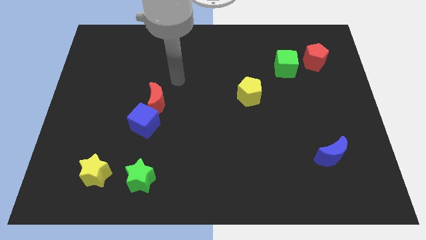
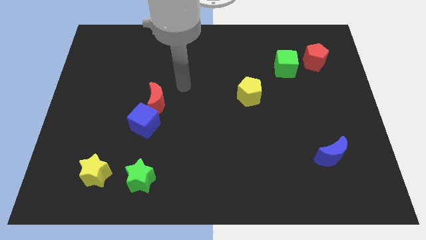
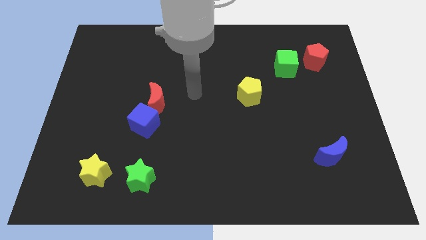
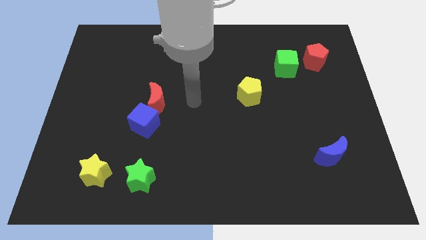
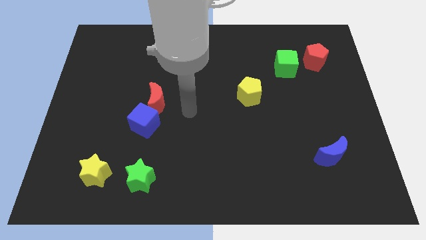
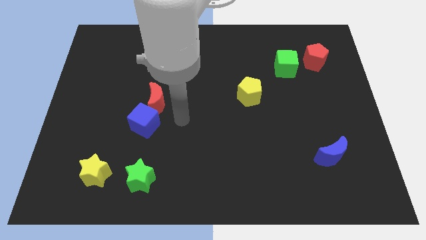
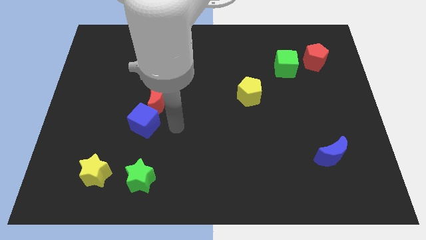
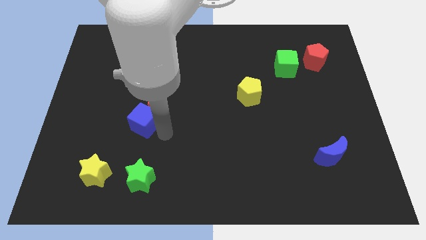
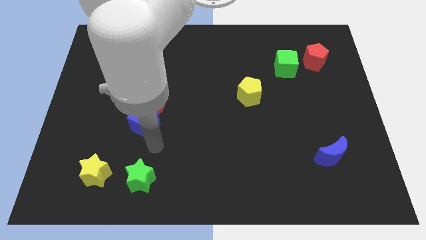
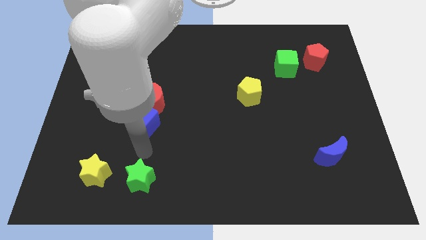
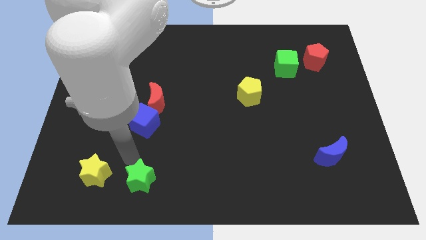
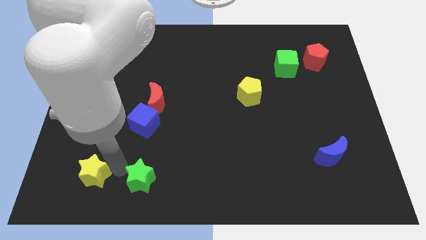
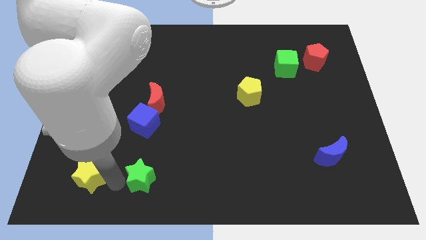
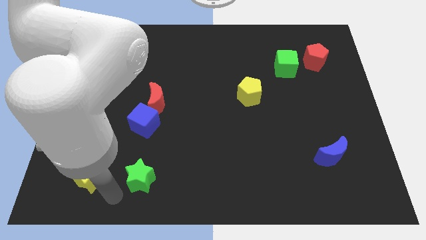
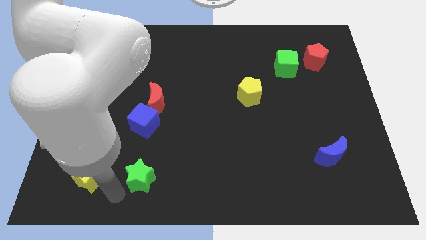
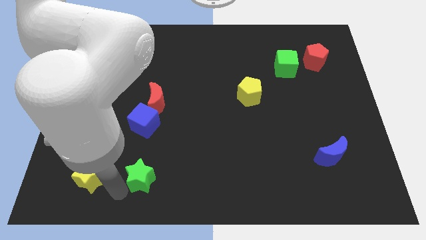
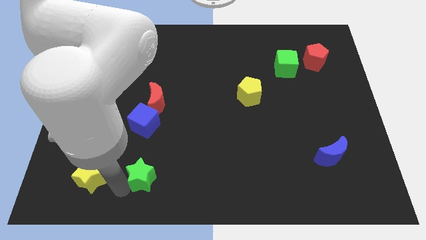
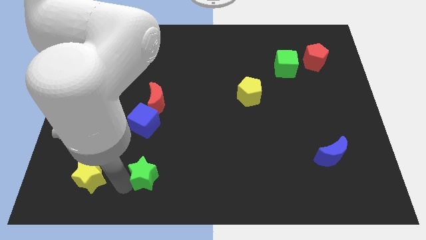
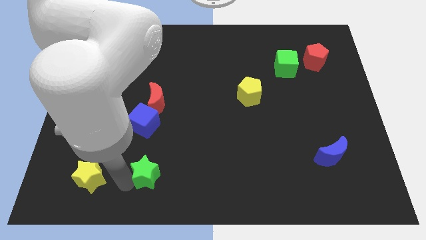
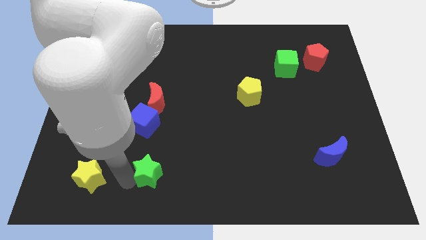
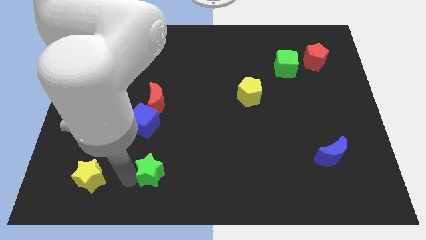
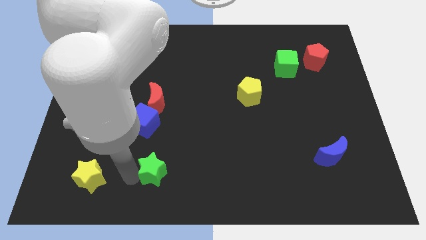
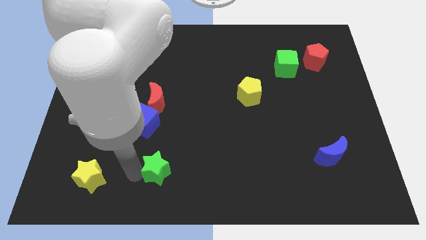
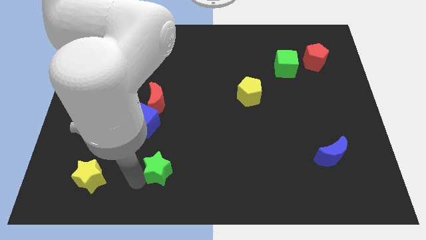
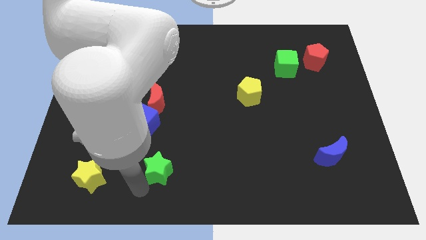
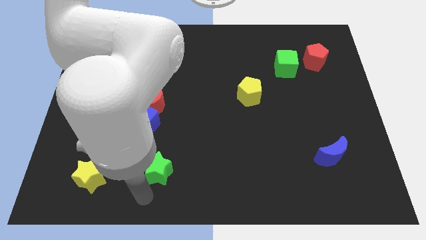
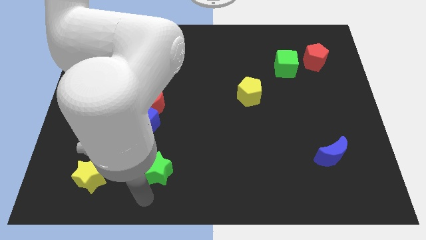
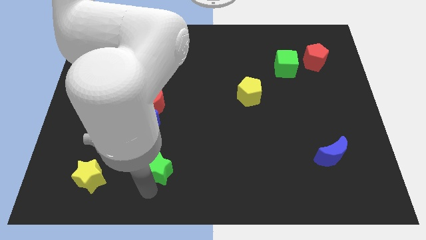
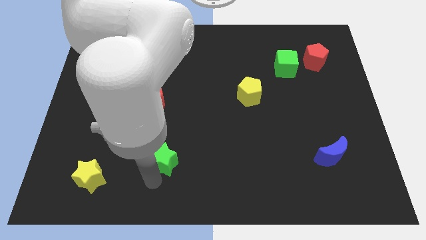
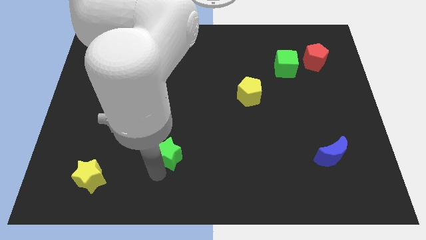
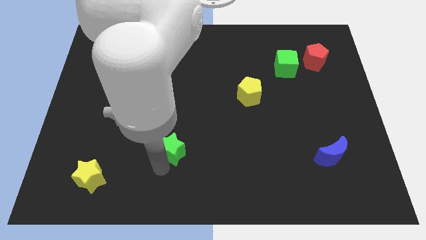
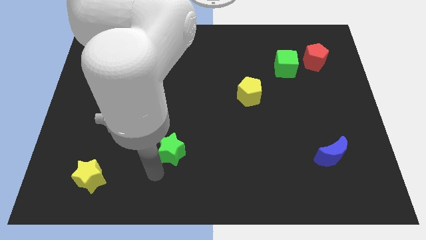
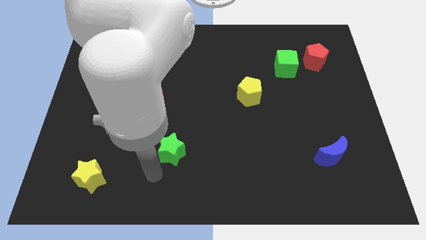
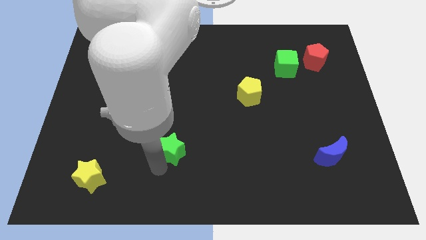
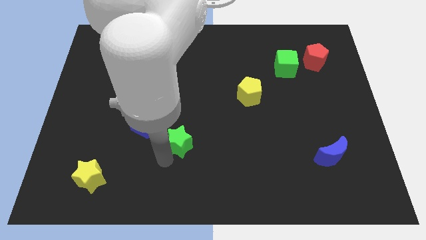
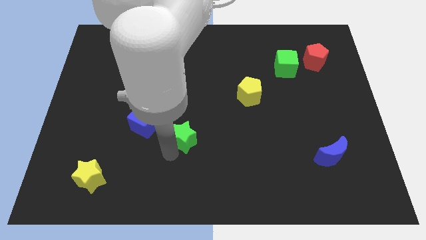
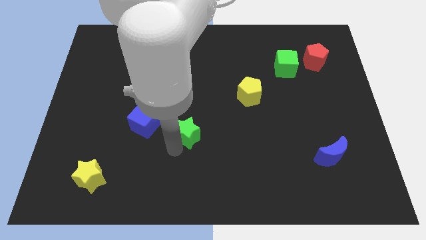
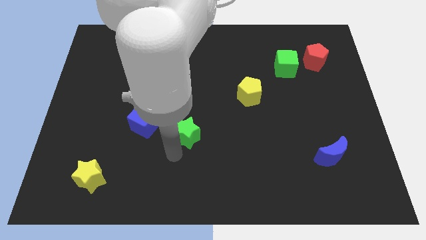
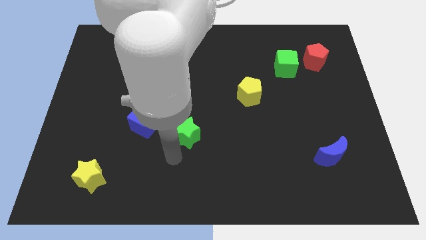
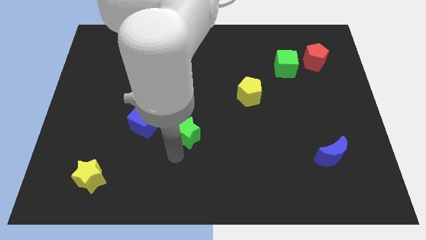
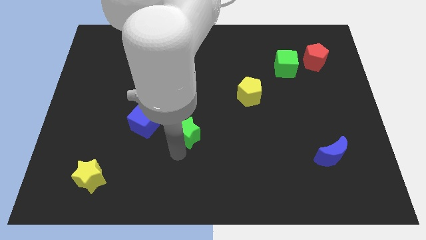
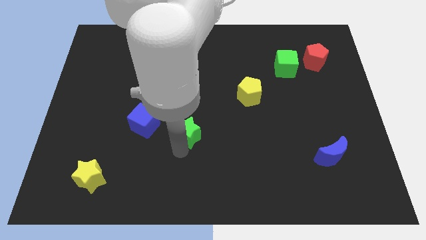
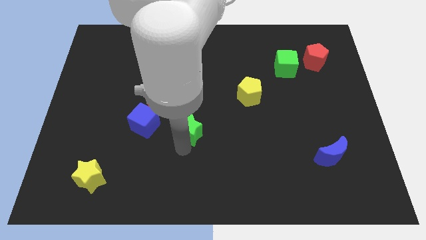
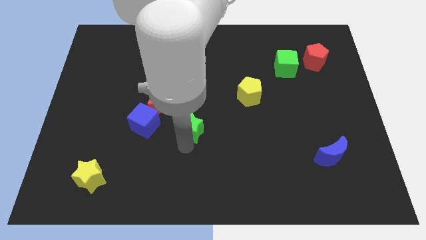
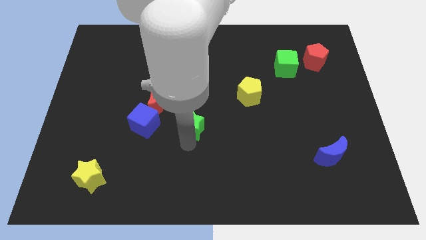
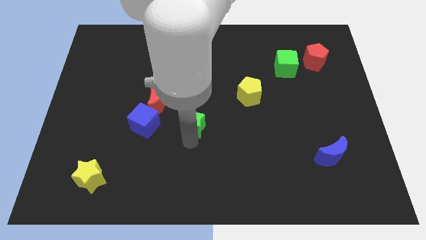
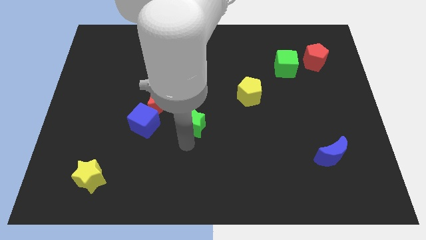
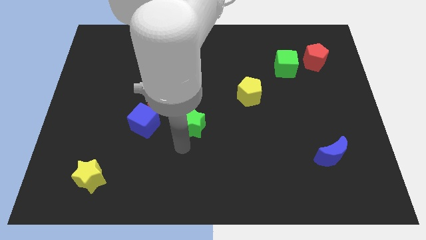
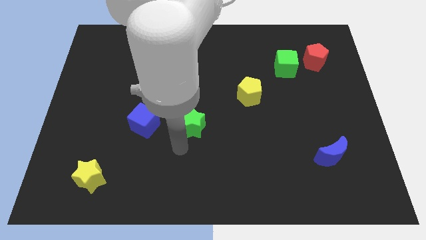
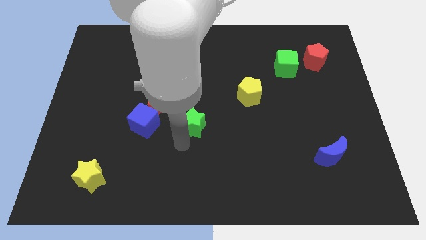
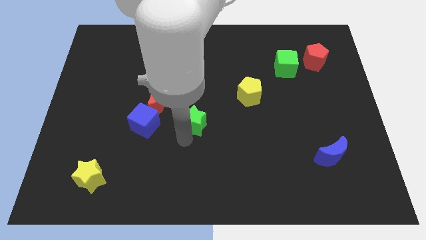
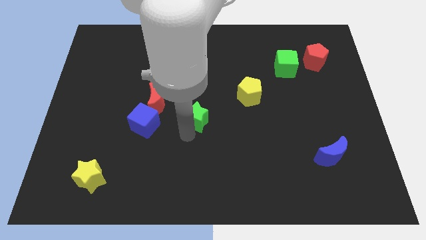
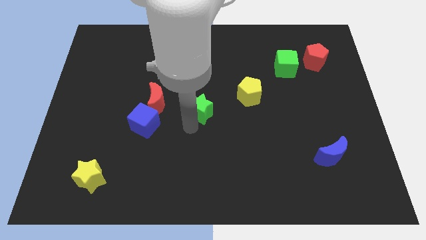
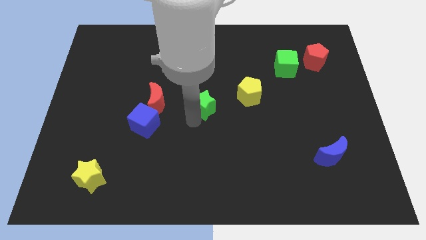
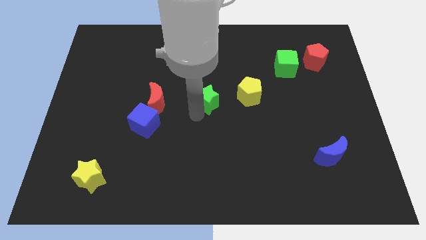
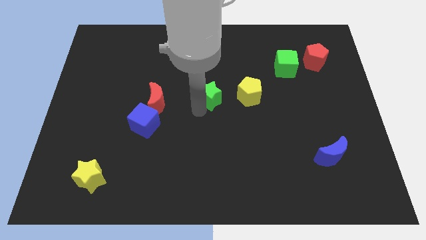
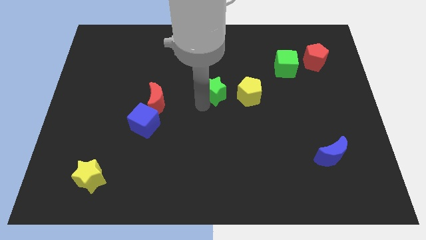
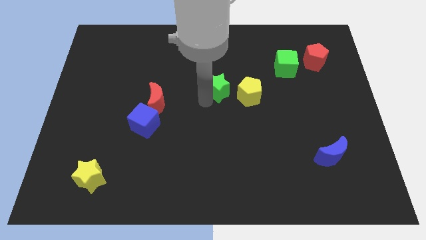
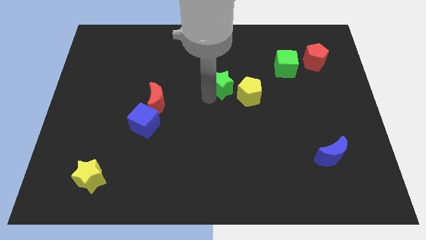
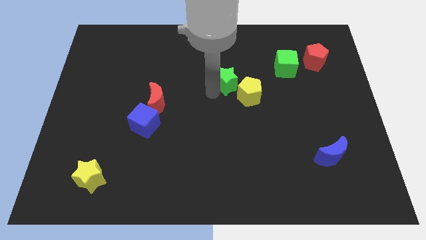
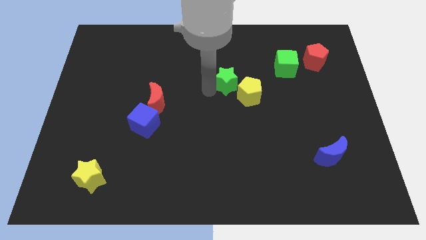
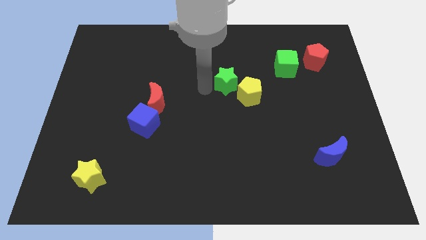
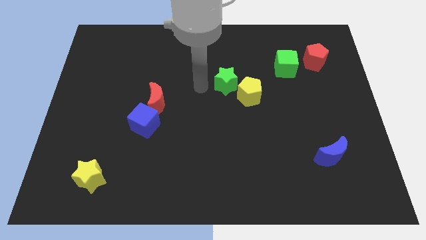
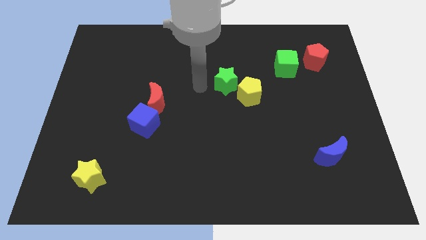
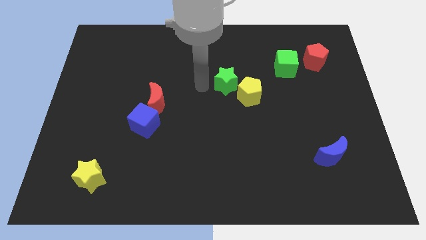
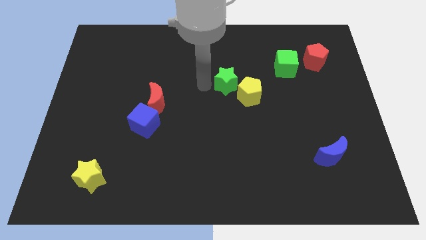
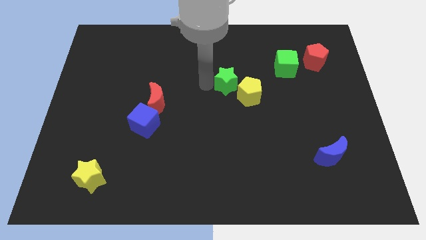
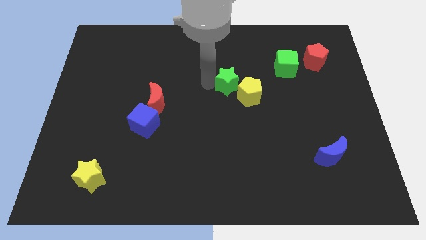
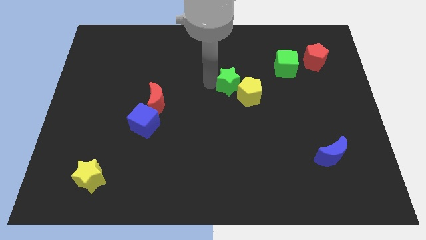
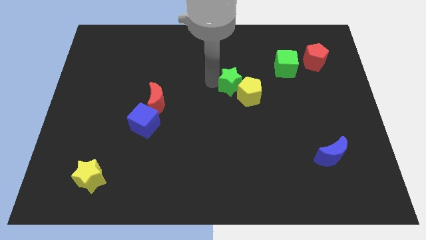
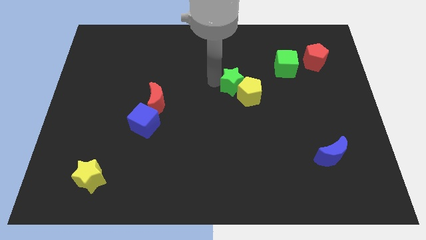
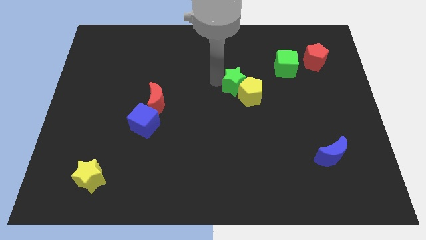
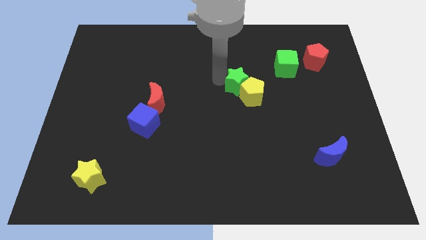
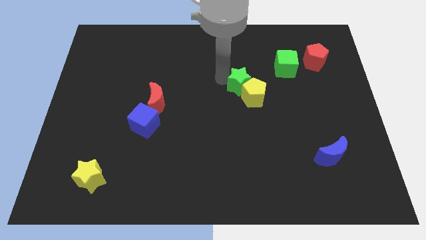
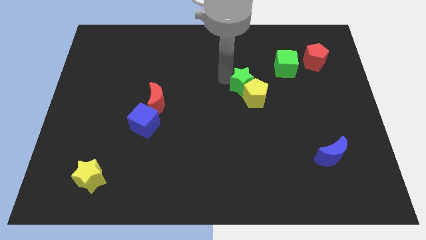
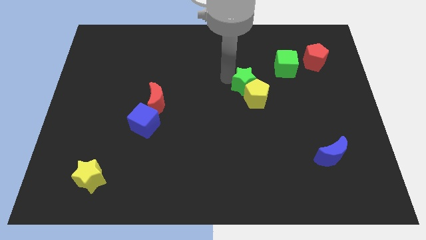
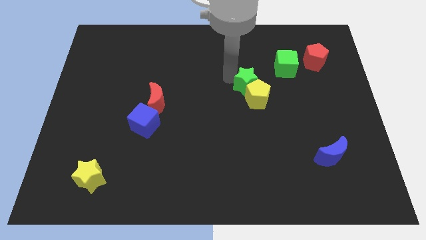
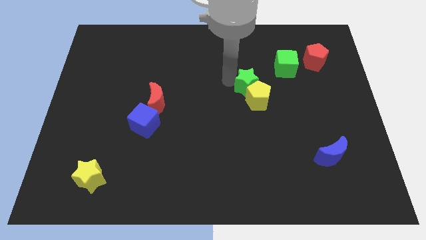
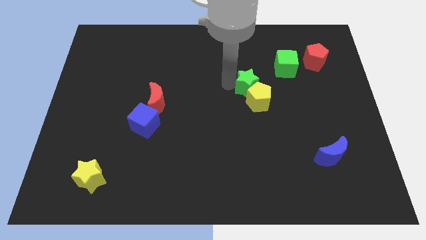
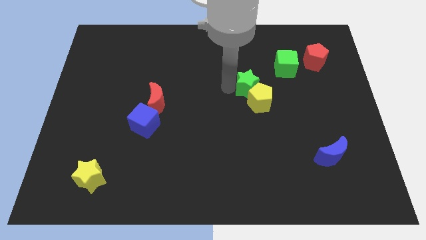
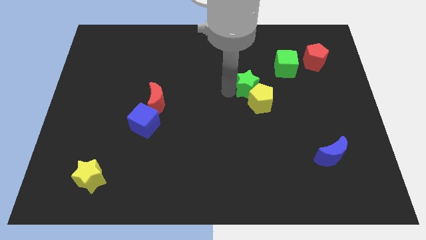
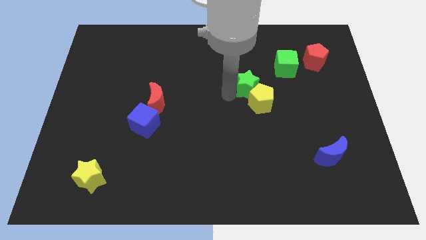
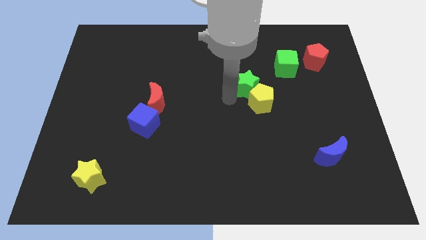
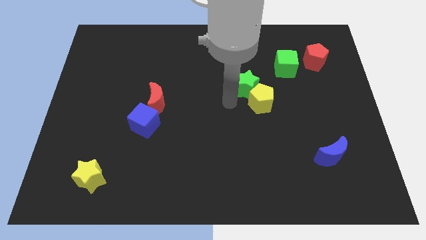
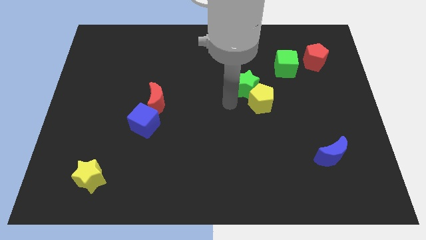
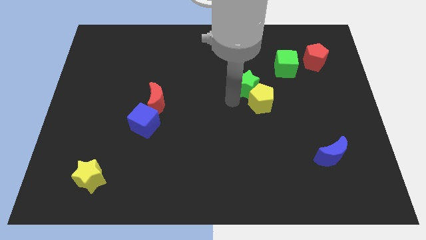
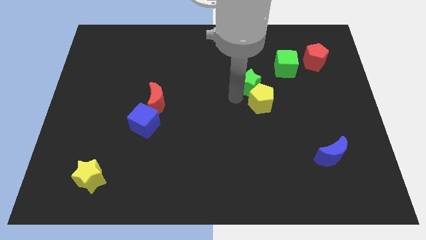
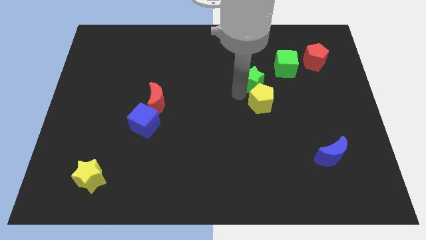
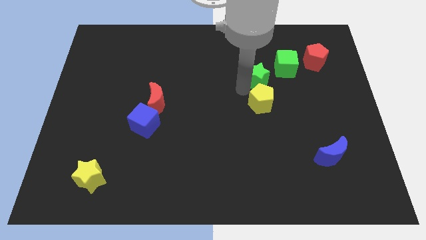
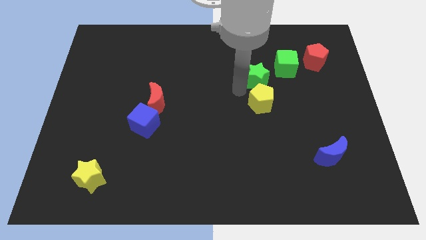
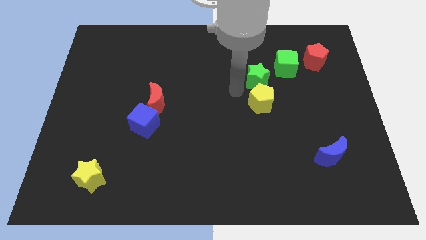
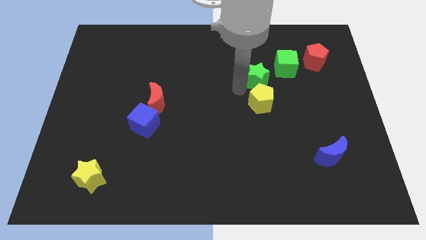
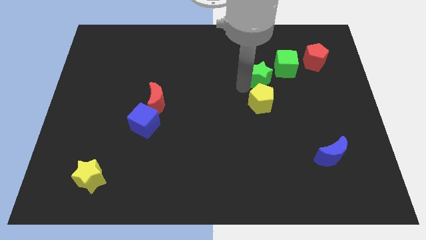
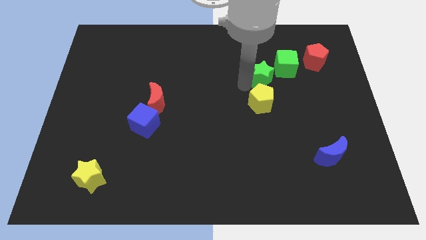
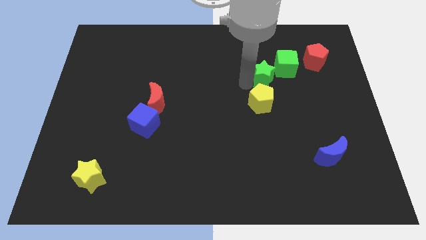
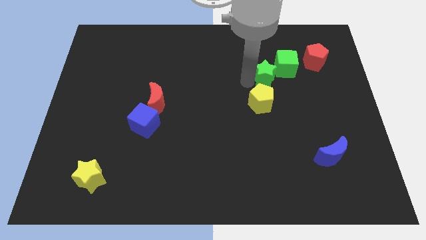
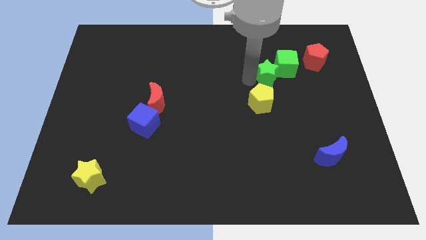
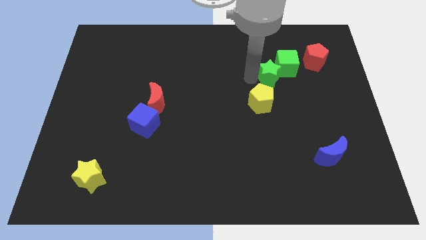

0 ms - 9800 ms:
push the green star to the green cube
